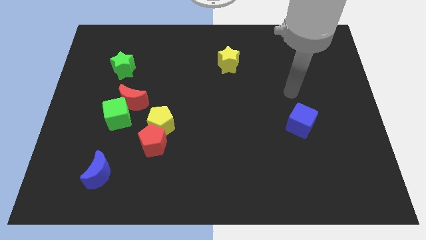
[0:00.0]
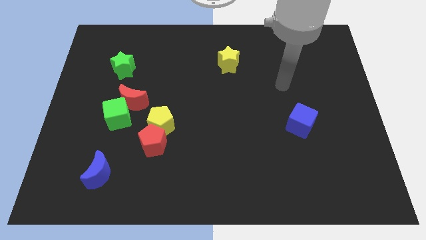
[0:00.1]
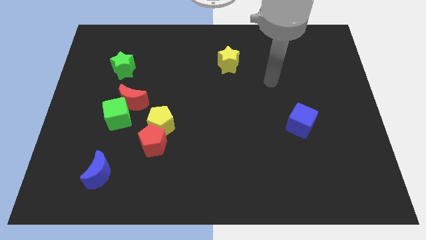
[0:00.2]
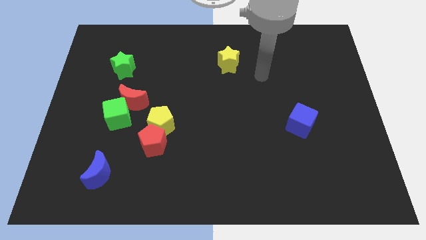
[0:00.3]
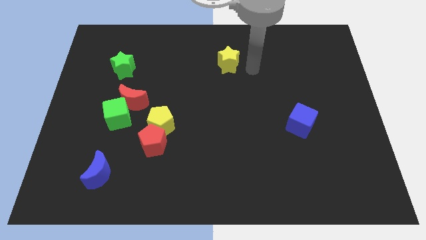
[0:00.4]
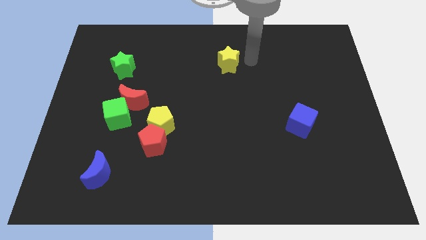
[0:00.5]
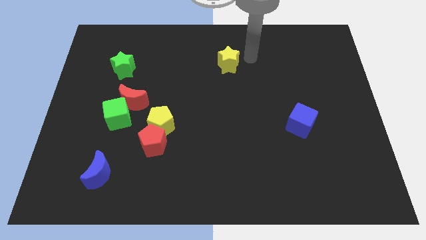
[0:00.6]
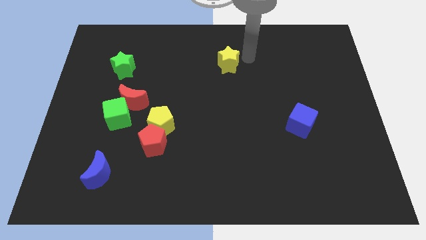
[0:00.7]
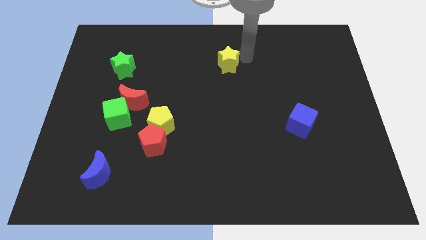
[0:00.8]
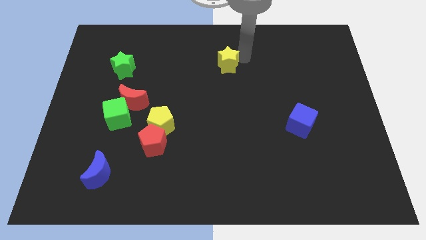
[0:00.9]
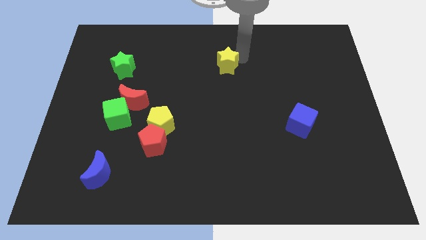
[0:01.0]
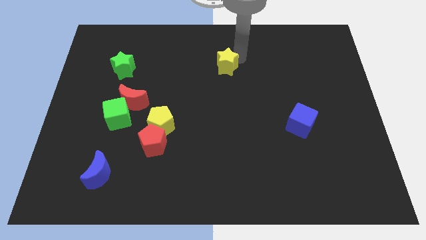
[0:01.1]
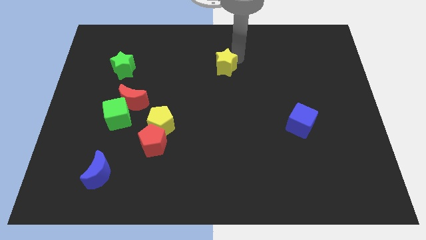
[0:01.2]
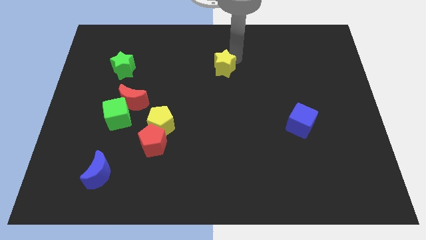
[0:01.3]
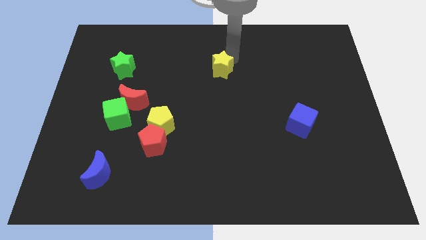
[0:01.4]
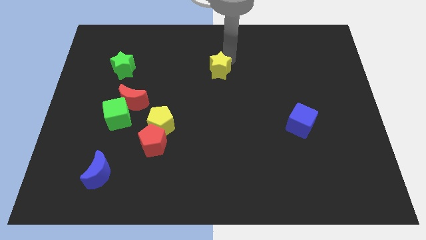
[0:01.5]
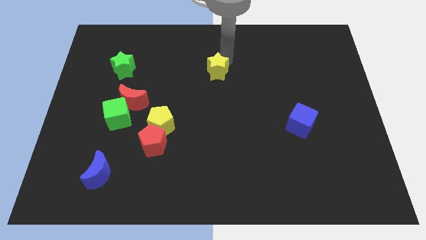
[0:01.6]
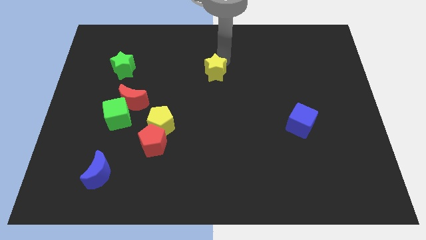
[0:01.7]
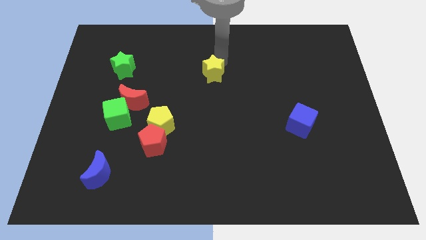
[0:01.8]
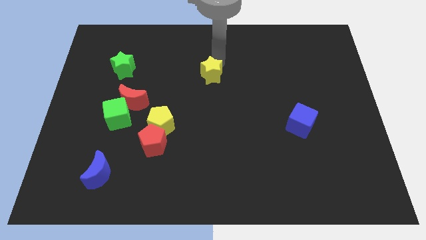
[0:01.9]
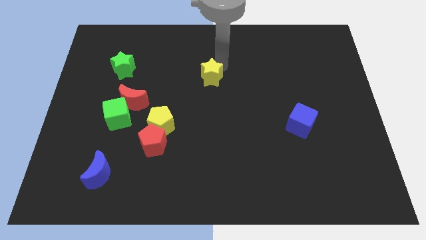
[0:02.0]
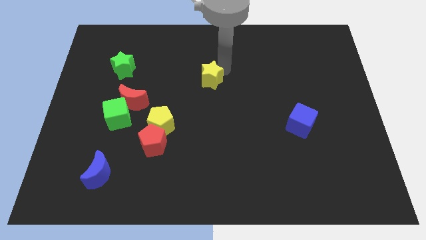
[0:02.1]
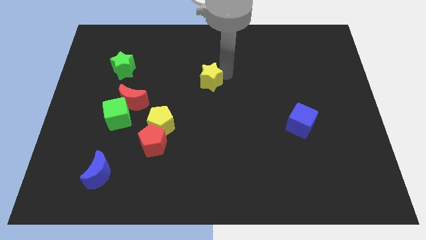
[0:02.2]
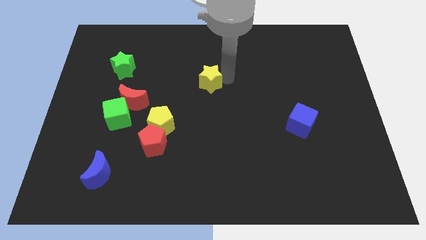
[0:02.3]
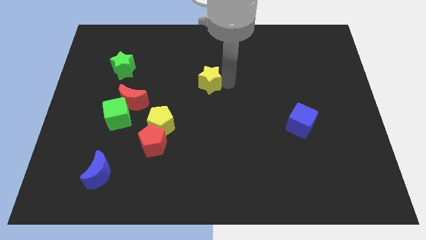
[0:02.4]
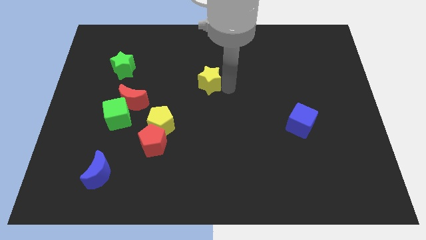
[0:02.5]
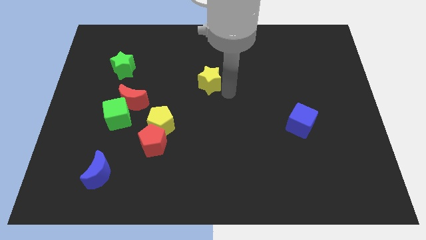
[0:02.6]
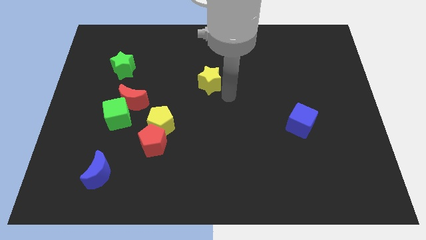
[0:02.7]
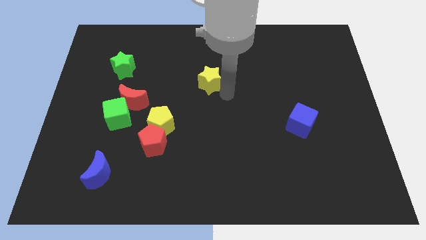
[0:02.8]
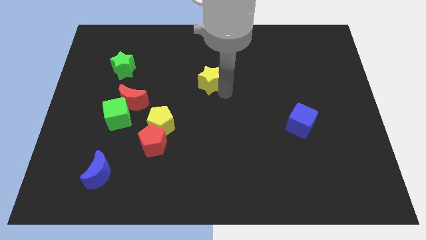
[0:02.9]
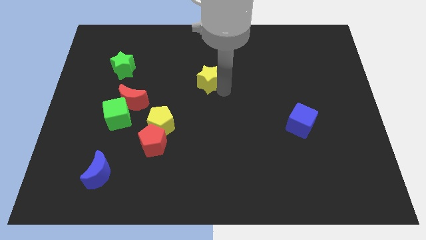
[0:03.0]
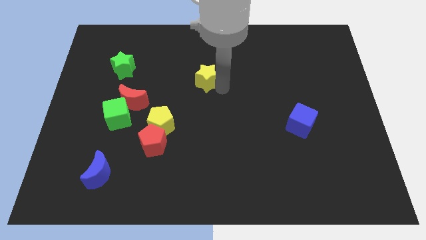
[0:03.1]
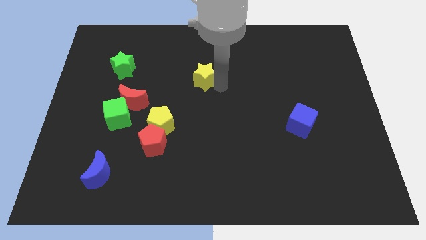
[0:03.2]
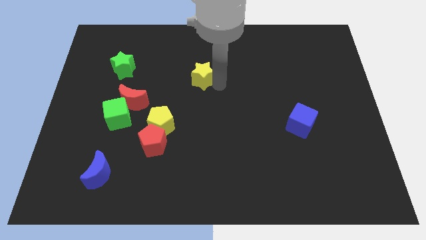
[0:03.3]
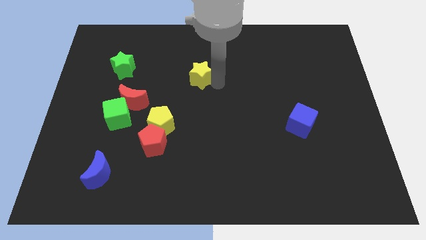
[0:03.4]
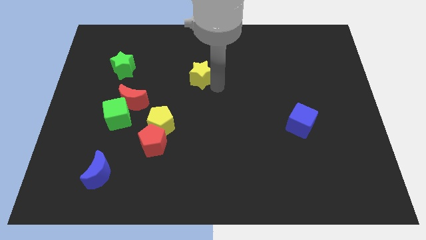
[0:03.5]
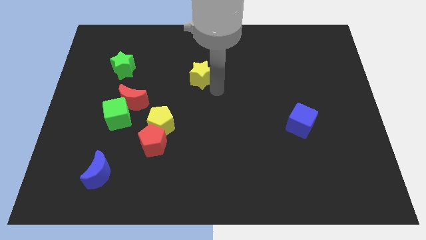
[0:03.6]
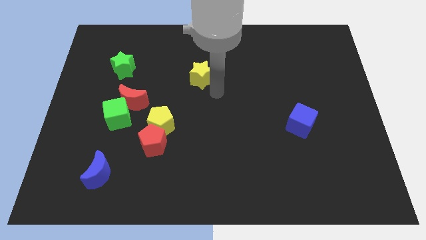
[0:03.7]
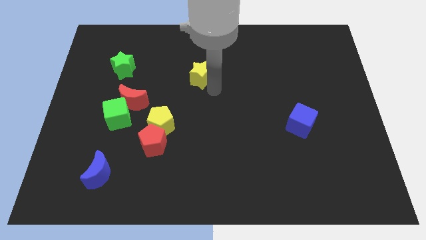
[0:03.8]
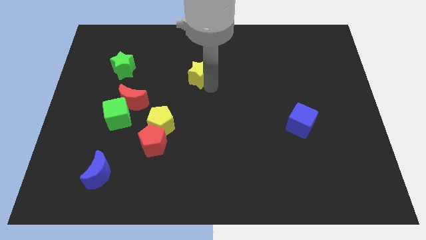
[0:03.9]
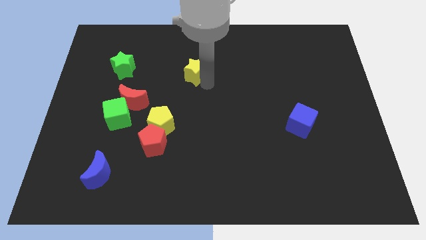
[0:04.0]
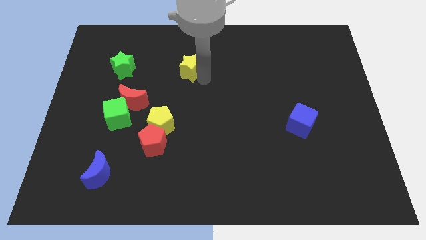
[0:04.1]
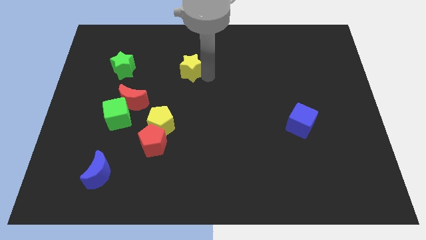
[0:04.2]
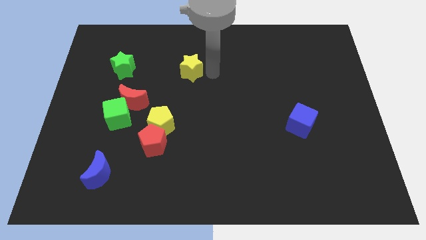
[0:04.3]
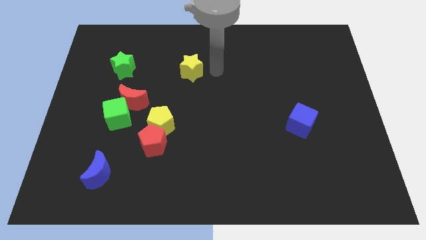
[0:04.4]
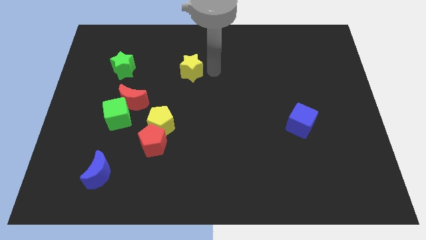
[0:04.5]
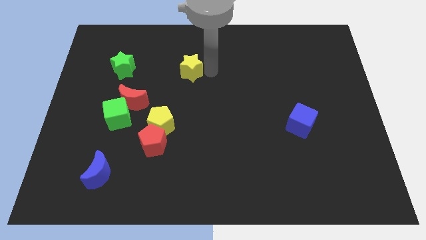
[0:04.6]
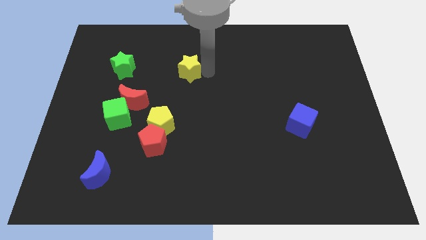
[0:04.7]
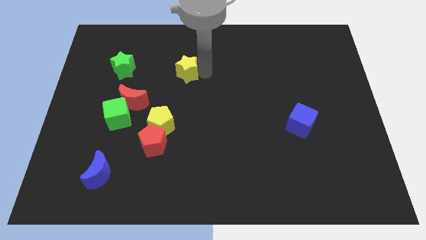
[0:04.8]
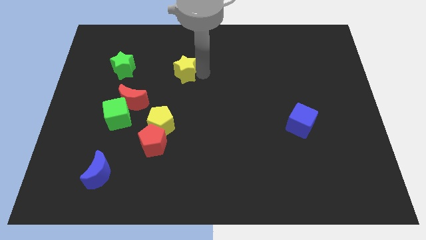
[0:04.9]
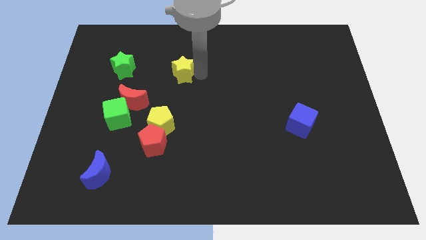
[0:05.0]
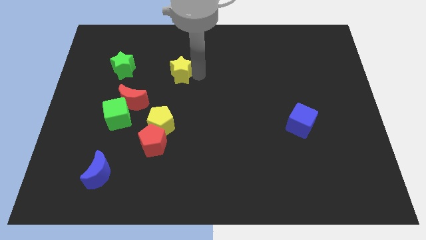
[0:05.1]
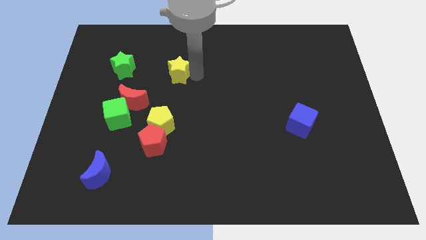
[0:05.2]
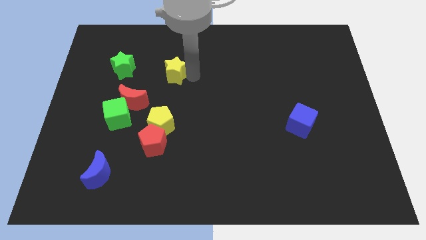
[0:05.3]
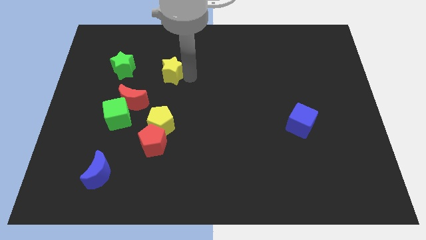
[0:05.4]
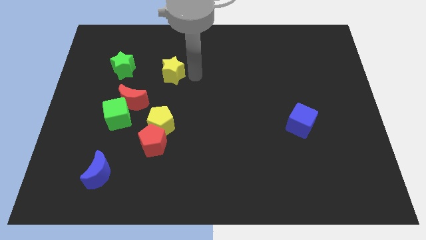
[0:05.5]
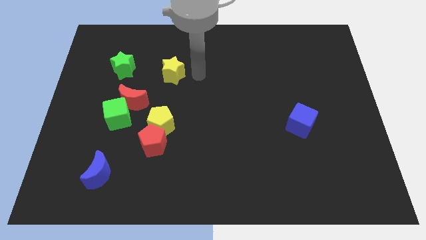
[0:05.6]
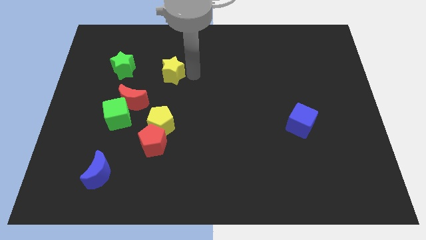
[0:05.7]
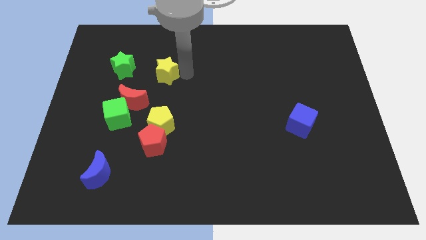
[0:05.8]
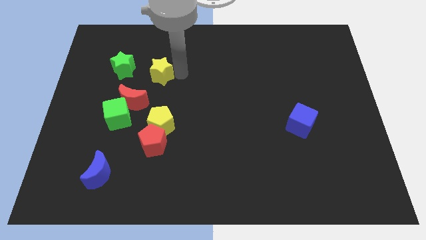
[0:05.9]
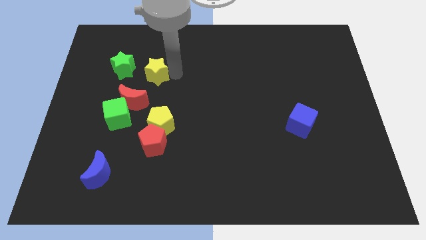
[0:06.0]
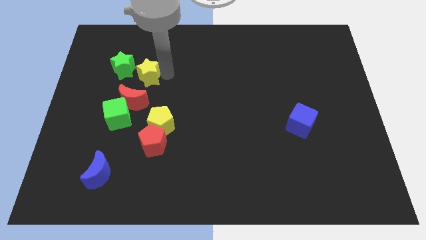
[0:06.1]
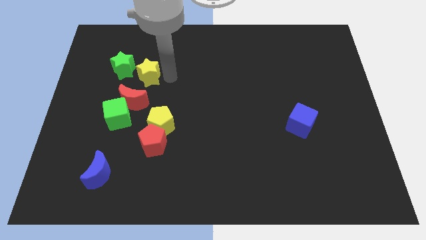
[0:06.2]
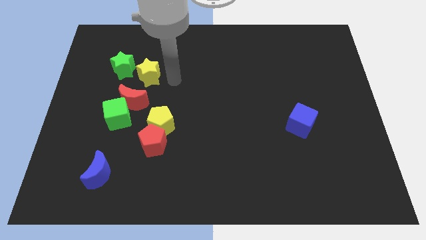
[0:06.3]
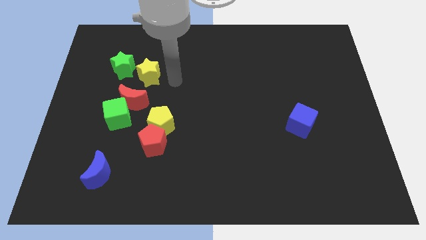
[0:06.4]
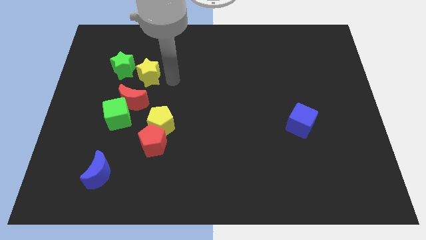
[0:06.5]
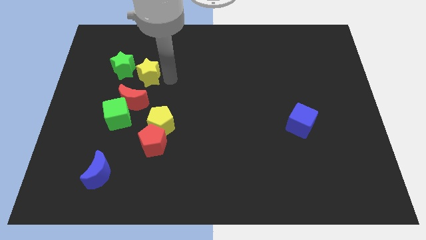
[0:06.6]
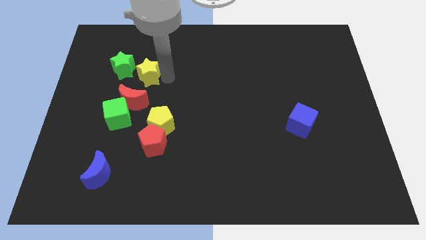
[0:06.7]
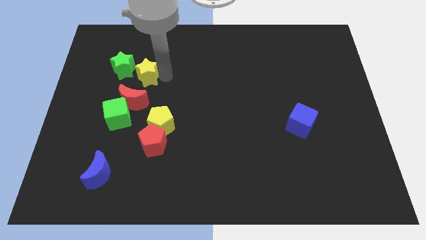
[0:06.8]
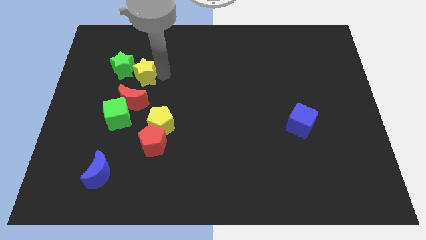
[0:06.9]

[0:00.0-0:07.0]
move the yellow star towards the green star

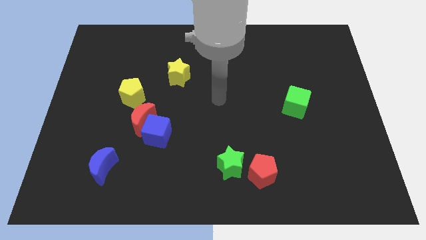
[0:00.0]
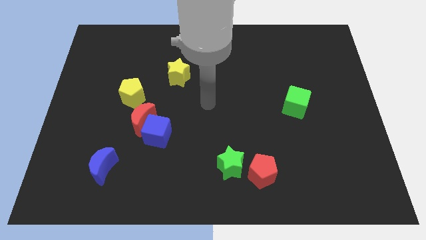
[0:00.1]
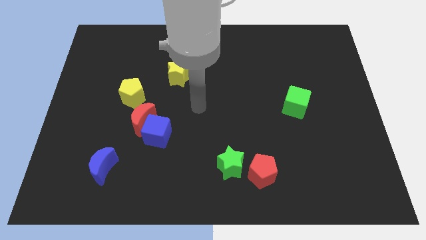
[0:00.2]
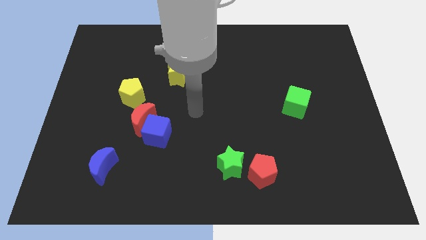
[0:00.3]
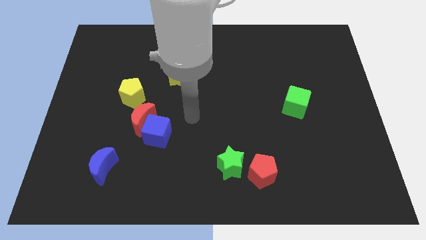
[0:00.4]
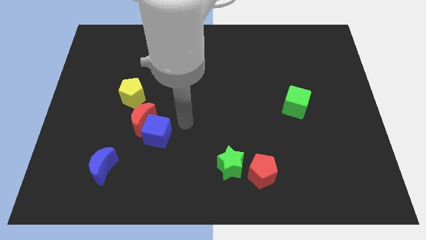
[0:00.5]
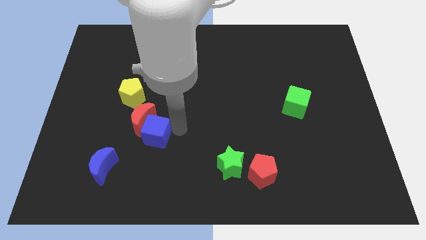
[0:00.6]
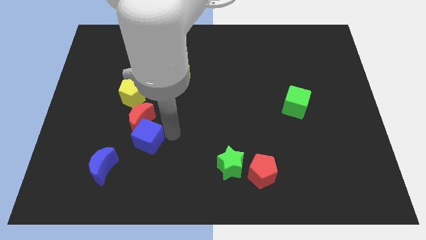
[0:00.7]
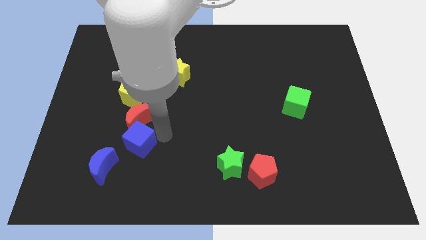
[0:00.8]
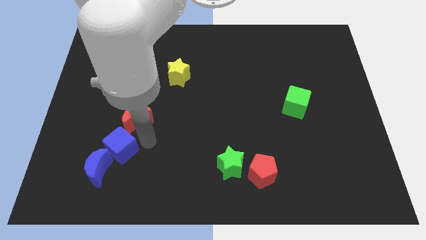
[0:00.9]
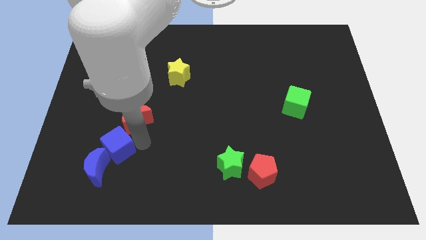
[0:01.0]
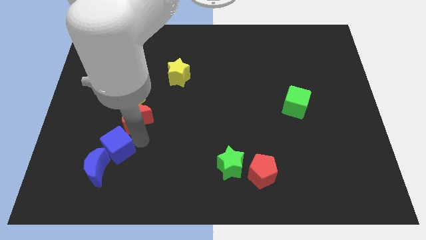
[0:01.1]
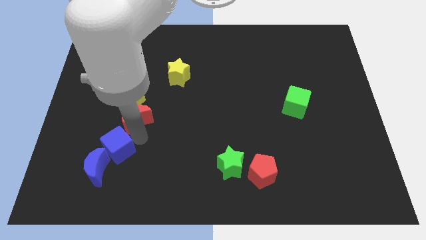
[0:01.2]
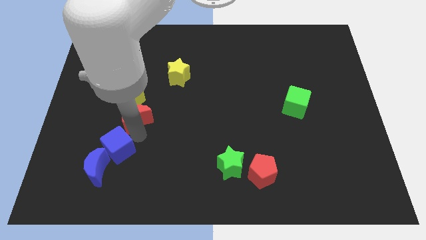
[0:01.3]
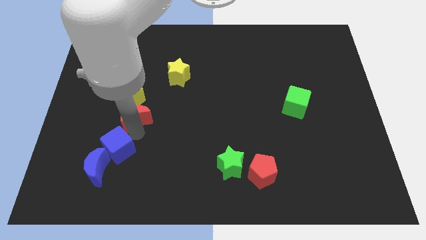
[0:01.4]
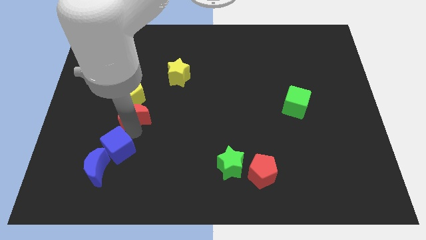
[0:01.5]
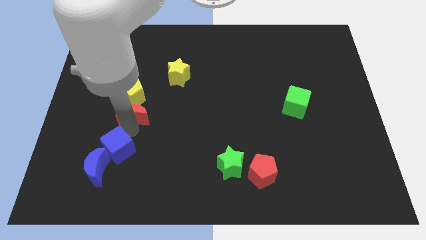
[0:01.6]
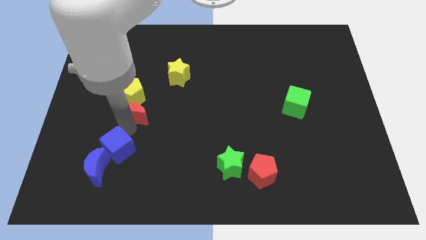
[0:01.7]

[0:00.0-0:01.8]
put the red moon close to the yellow pentagon
